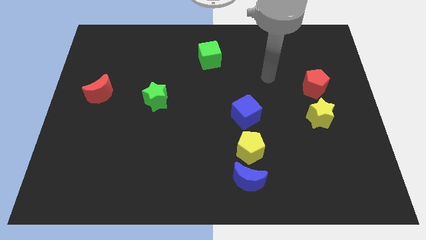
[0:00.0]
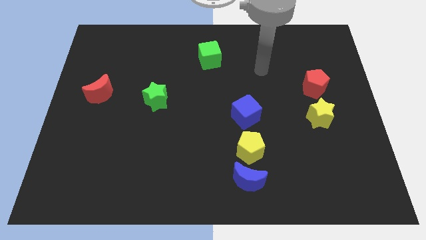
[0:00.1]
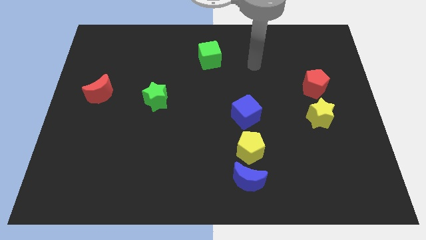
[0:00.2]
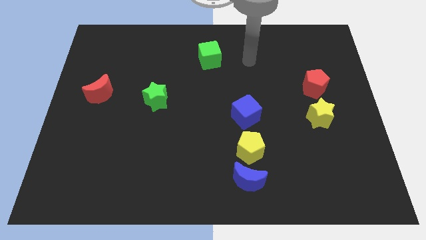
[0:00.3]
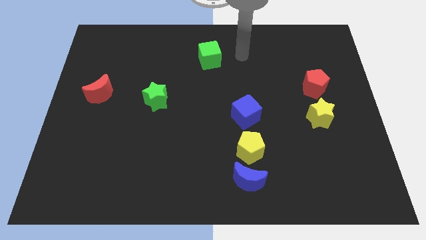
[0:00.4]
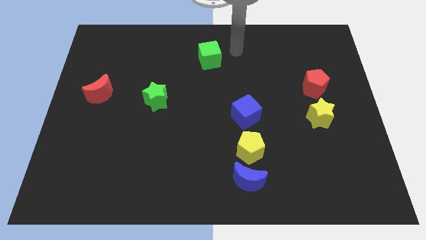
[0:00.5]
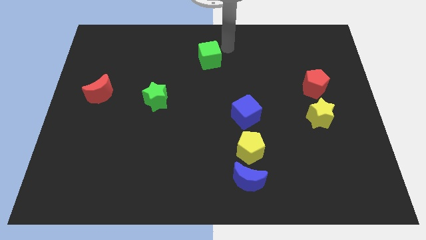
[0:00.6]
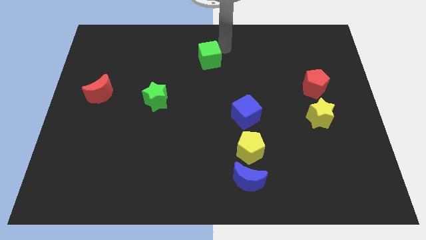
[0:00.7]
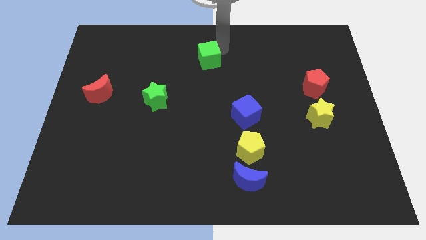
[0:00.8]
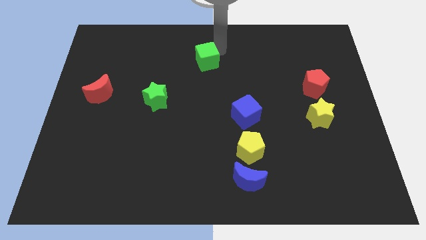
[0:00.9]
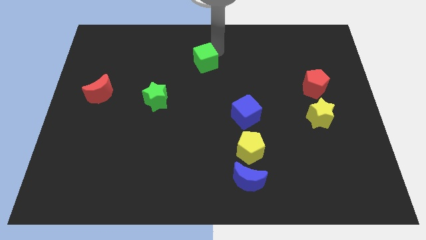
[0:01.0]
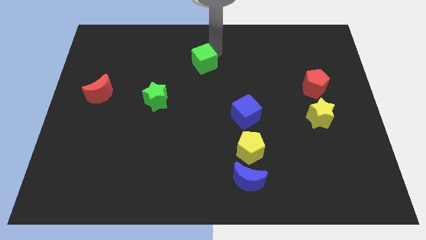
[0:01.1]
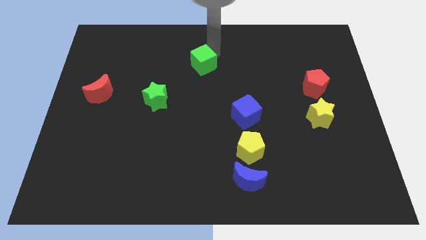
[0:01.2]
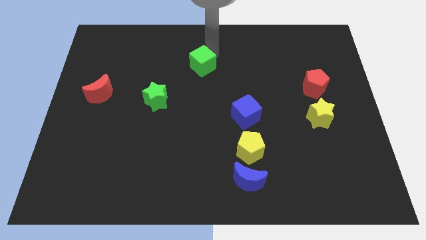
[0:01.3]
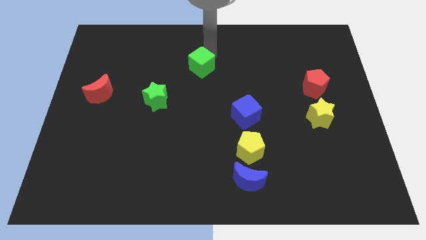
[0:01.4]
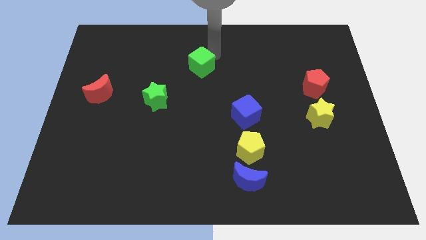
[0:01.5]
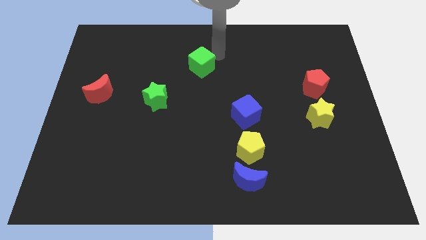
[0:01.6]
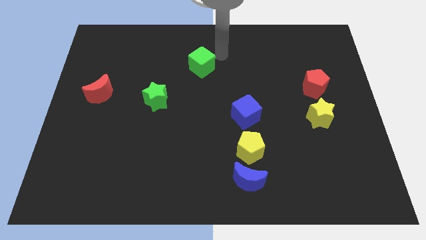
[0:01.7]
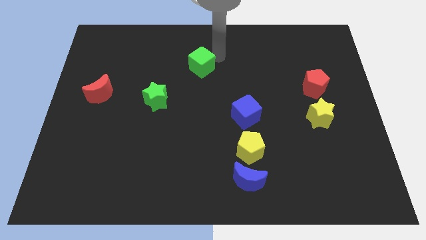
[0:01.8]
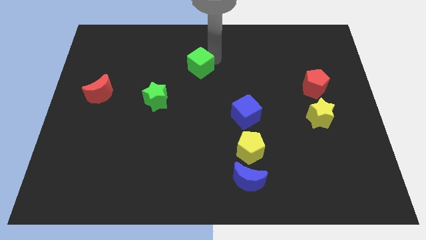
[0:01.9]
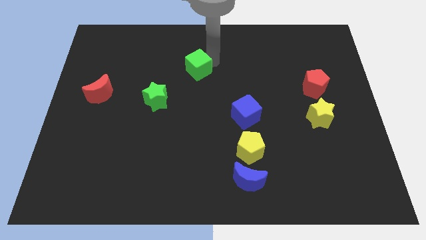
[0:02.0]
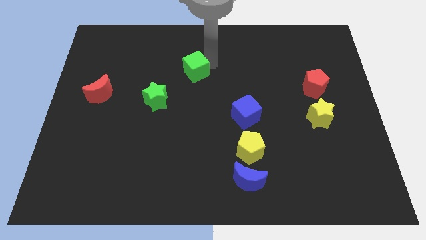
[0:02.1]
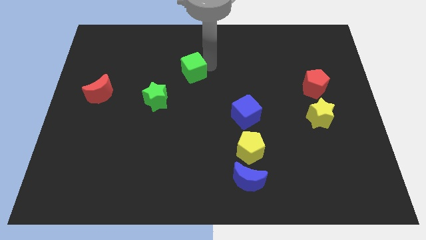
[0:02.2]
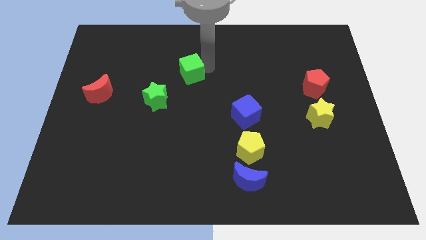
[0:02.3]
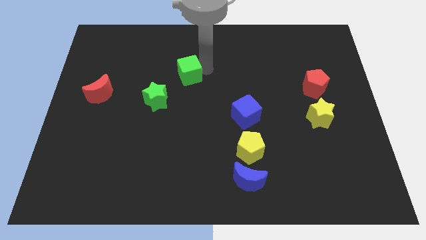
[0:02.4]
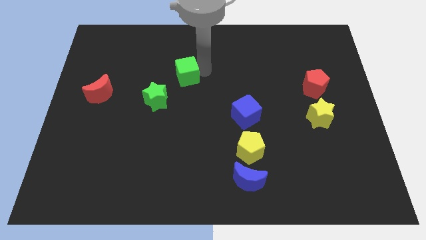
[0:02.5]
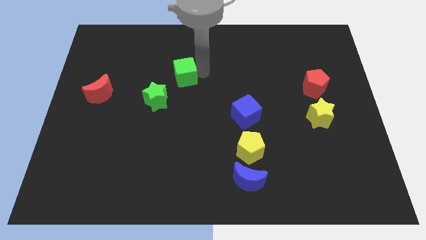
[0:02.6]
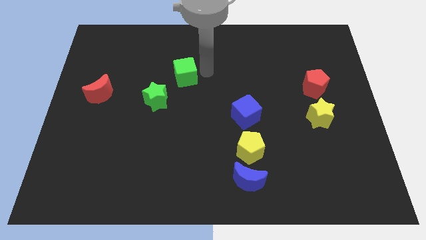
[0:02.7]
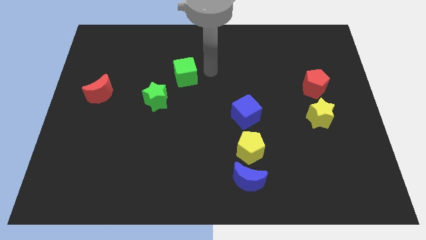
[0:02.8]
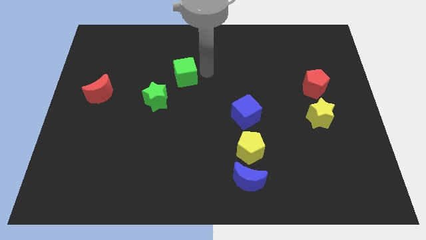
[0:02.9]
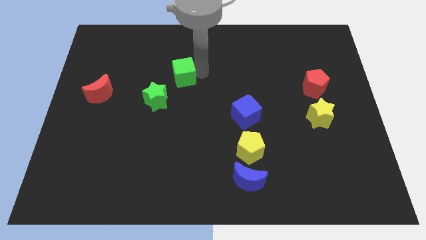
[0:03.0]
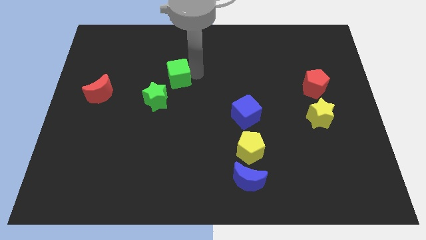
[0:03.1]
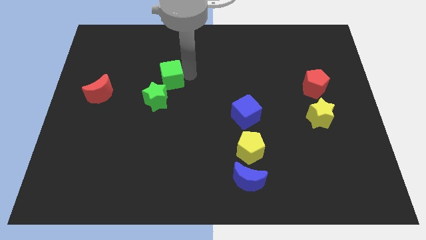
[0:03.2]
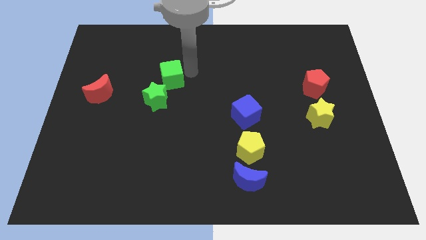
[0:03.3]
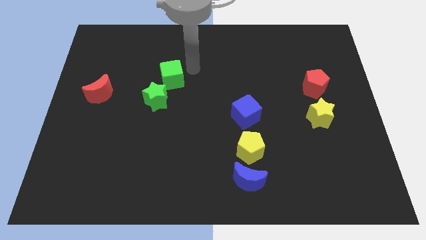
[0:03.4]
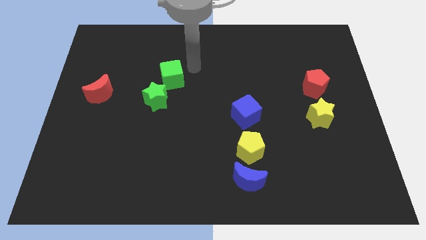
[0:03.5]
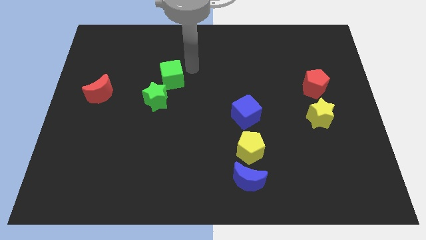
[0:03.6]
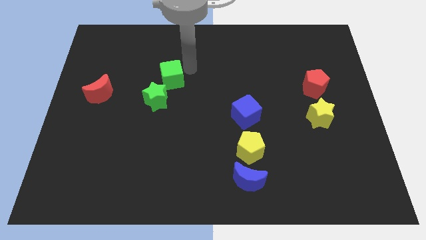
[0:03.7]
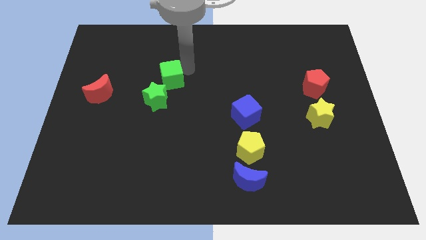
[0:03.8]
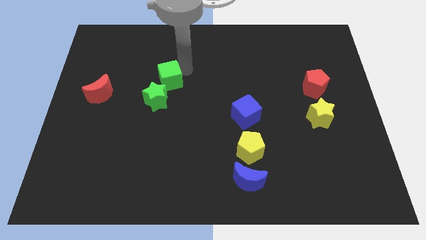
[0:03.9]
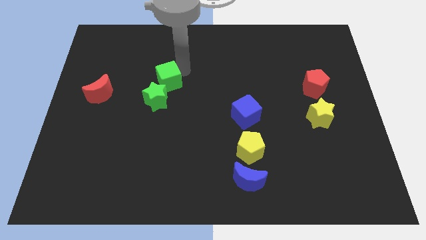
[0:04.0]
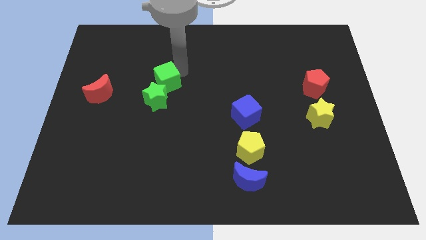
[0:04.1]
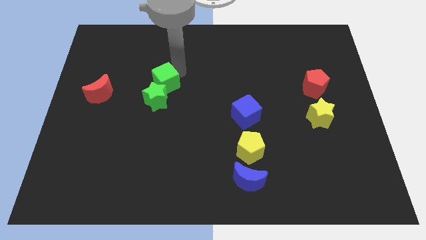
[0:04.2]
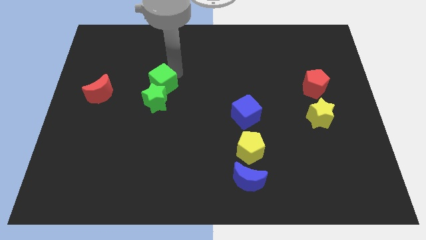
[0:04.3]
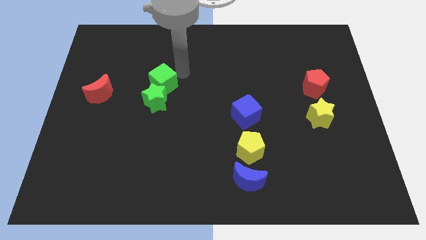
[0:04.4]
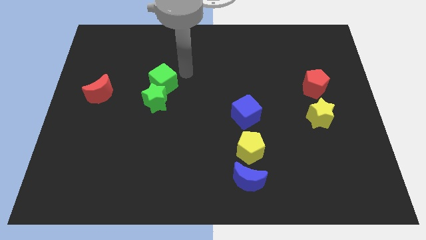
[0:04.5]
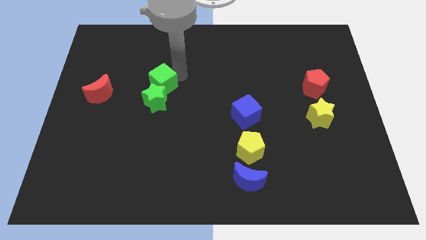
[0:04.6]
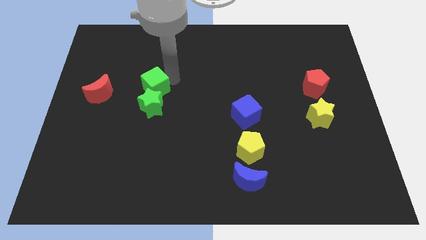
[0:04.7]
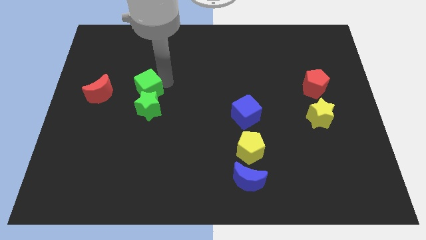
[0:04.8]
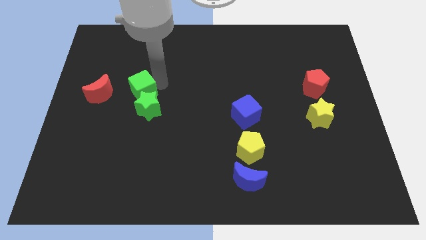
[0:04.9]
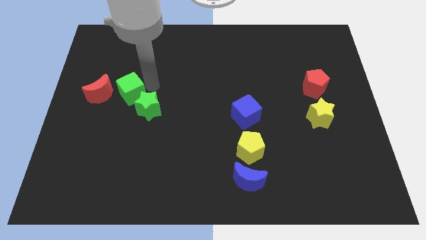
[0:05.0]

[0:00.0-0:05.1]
push the green cube down and left diagonally

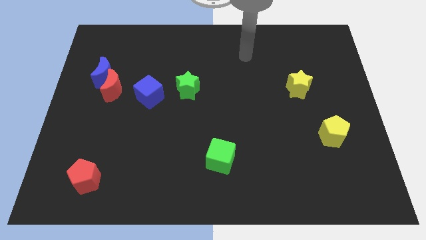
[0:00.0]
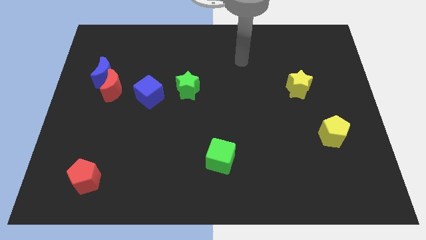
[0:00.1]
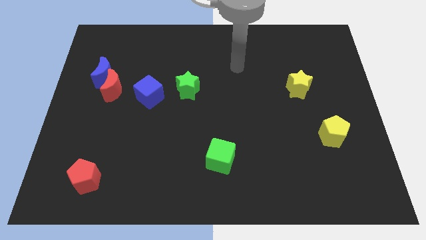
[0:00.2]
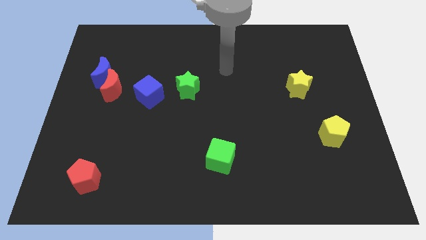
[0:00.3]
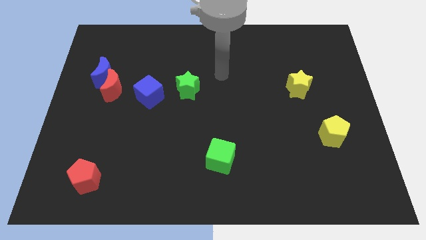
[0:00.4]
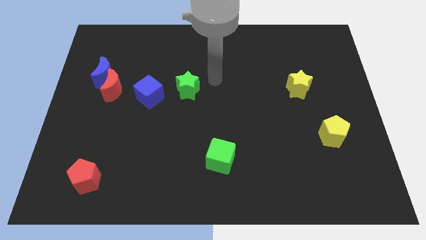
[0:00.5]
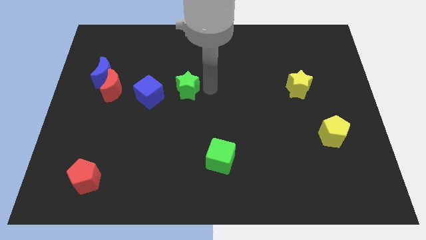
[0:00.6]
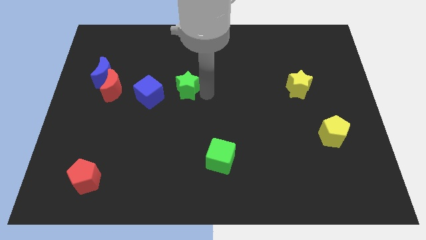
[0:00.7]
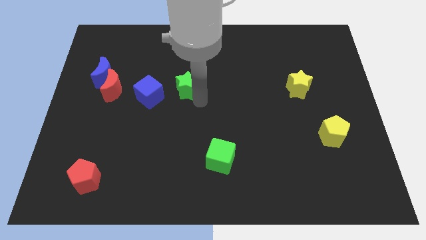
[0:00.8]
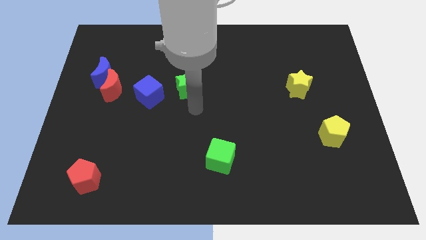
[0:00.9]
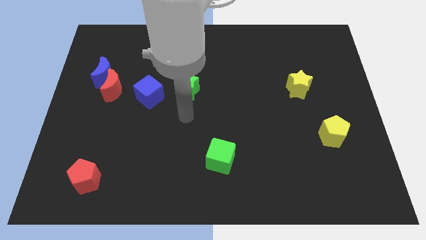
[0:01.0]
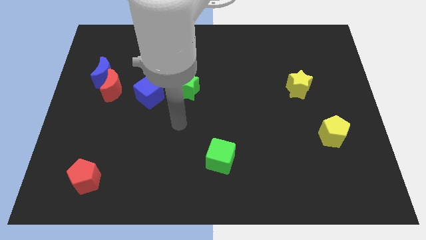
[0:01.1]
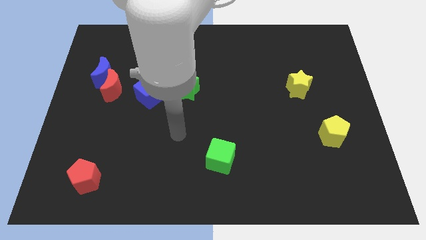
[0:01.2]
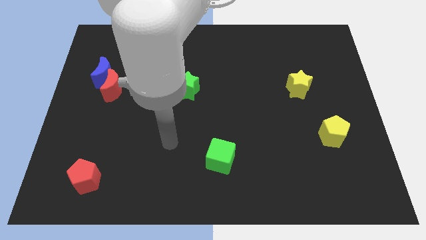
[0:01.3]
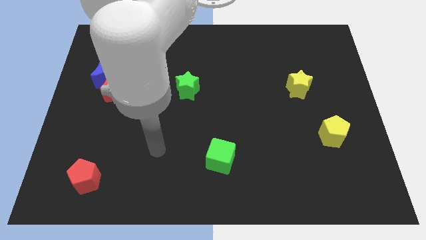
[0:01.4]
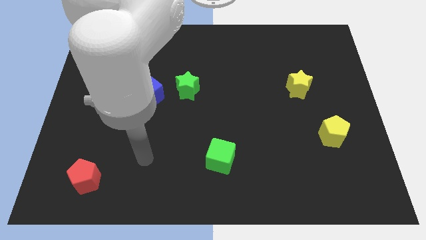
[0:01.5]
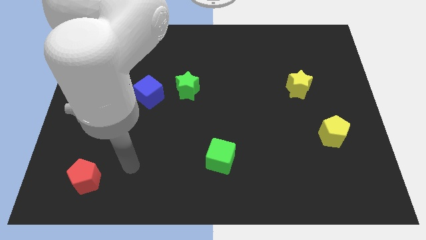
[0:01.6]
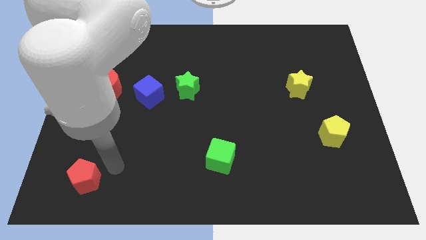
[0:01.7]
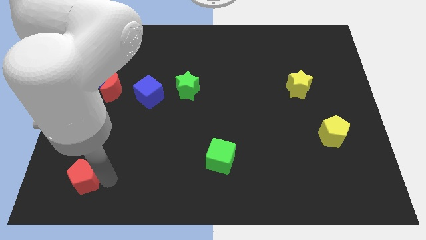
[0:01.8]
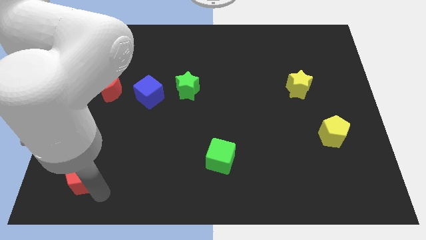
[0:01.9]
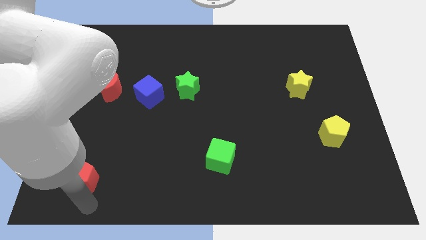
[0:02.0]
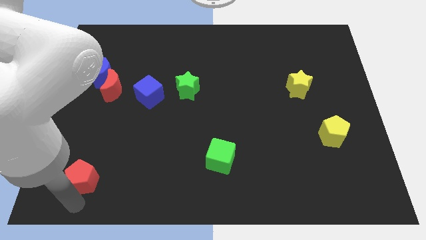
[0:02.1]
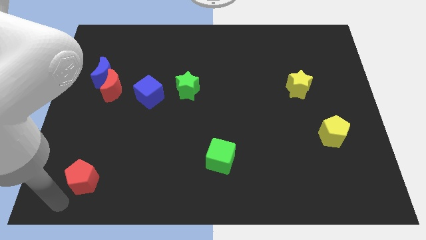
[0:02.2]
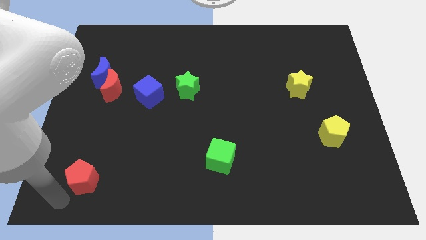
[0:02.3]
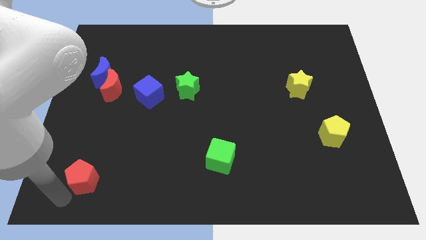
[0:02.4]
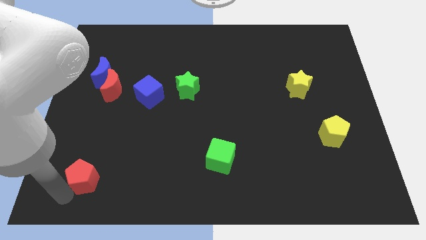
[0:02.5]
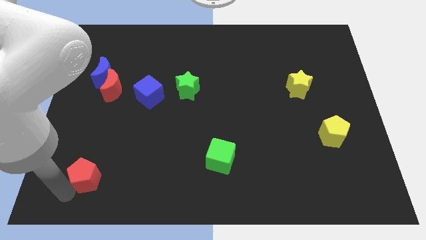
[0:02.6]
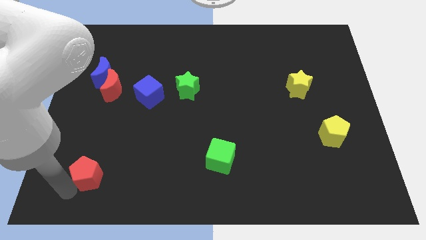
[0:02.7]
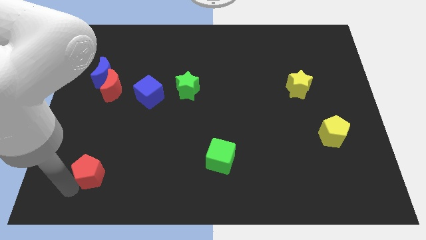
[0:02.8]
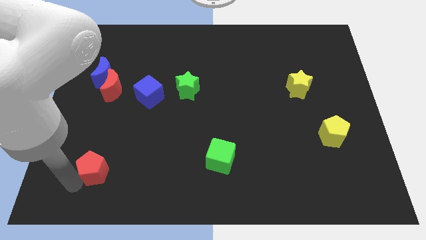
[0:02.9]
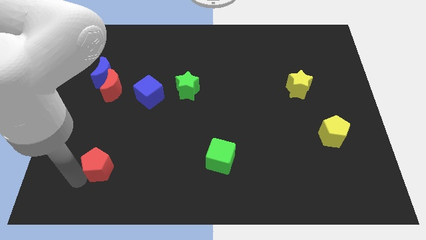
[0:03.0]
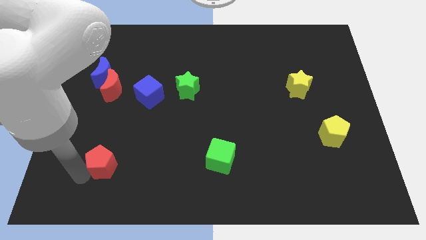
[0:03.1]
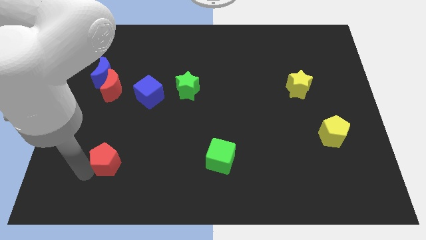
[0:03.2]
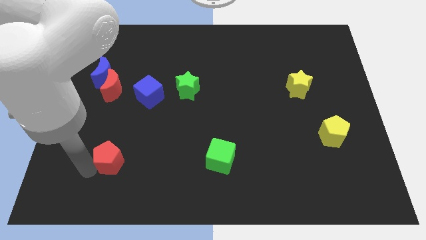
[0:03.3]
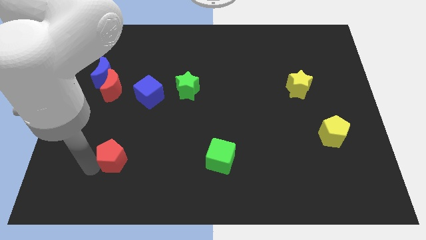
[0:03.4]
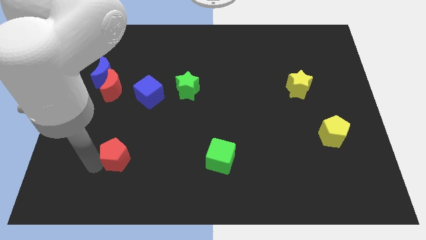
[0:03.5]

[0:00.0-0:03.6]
push the red pentagon somewhat up and to the right diagonally
